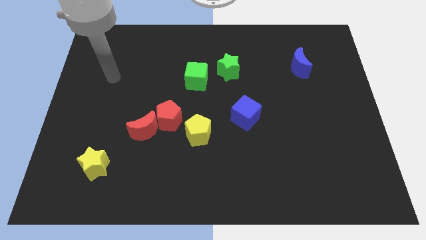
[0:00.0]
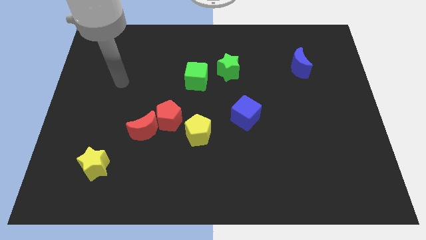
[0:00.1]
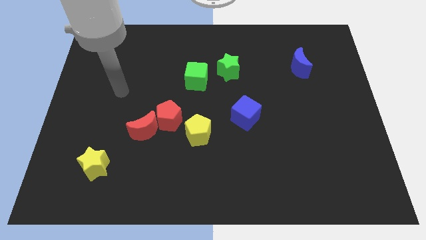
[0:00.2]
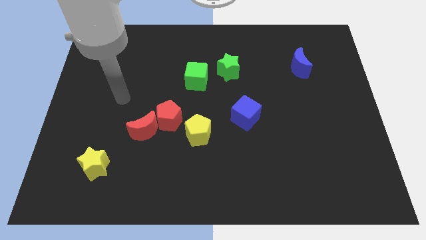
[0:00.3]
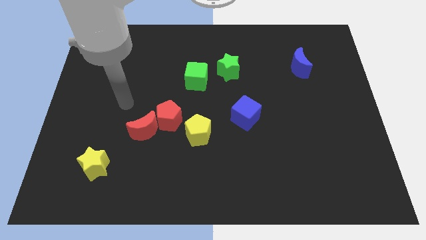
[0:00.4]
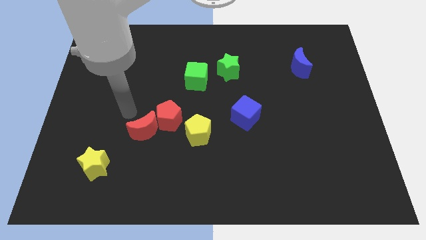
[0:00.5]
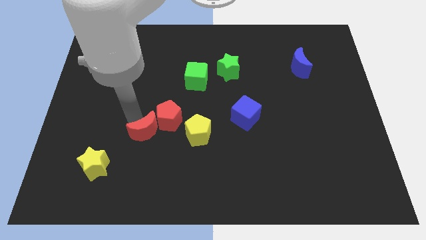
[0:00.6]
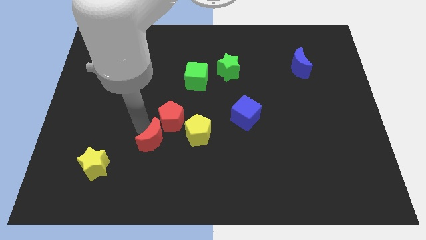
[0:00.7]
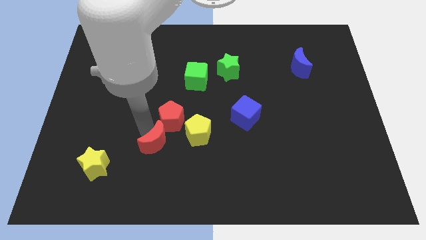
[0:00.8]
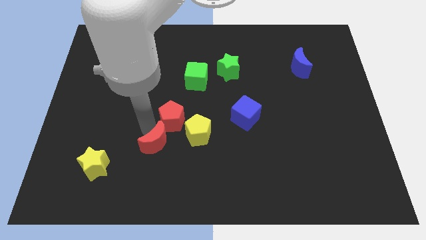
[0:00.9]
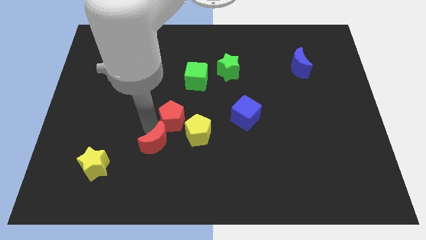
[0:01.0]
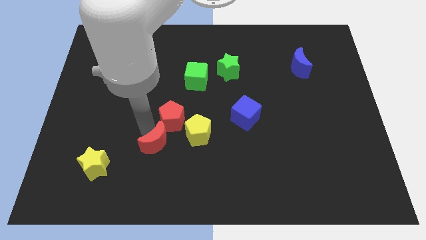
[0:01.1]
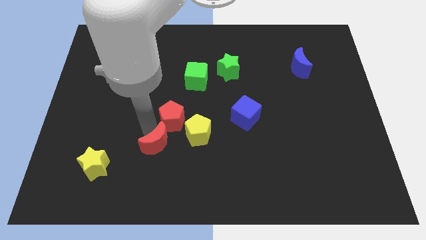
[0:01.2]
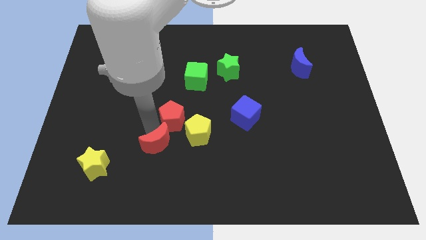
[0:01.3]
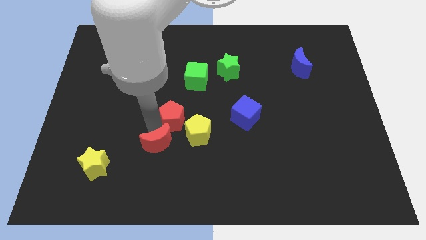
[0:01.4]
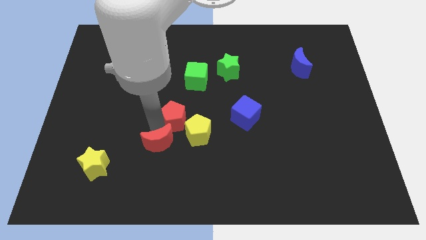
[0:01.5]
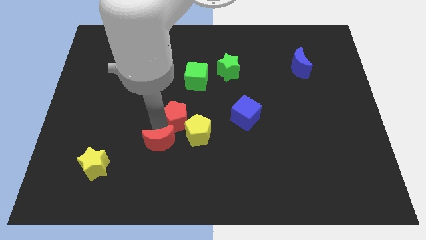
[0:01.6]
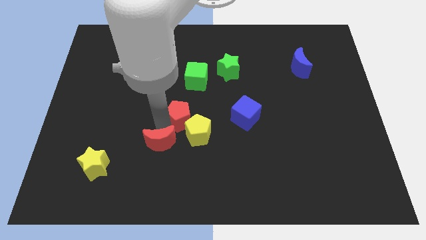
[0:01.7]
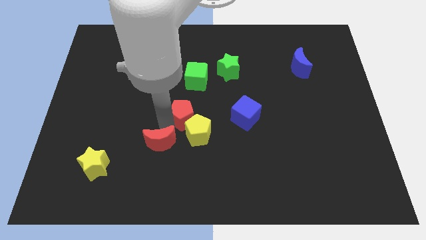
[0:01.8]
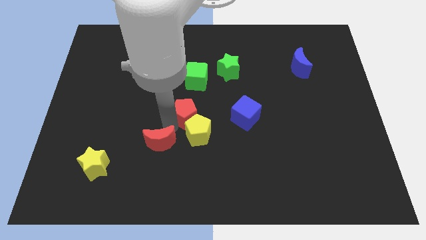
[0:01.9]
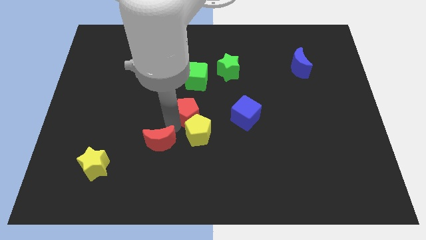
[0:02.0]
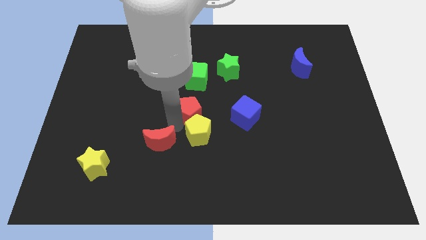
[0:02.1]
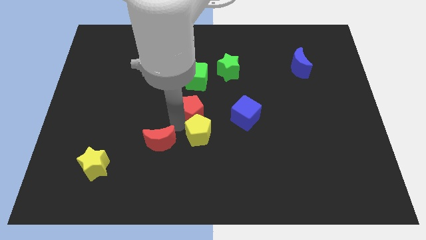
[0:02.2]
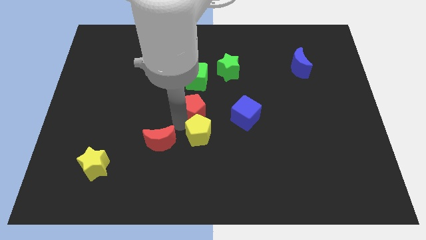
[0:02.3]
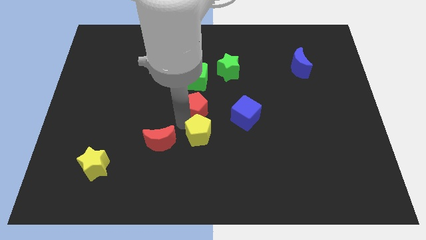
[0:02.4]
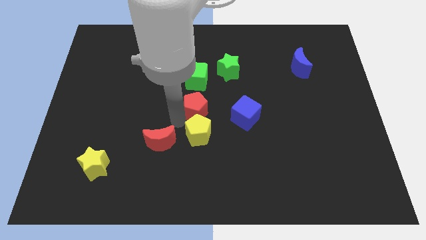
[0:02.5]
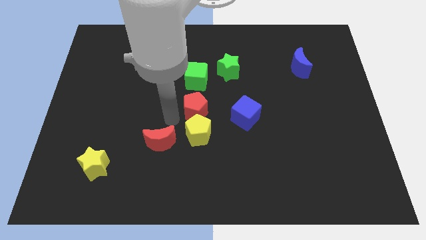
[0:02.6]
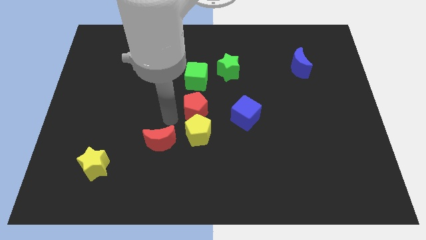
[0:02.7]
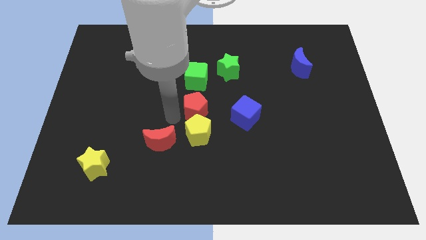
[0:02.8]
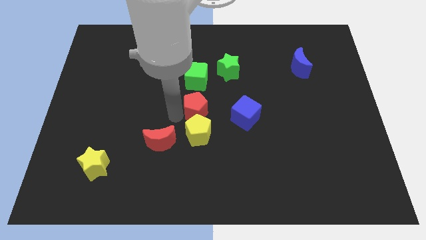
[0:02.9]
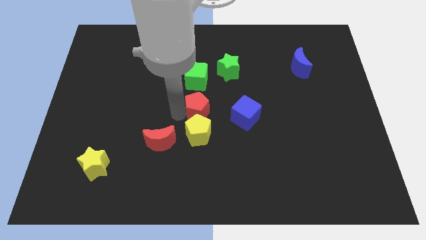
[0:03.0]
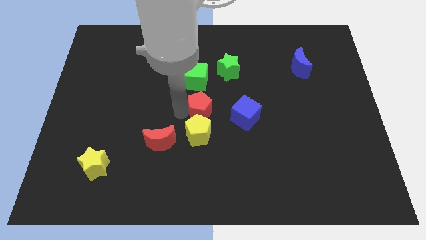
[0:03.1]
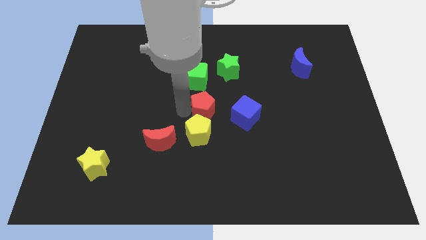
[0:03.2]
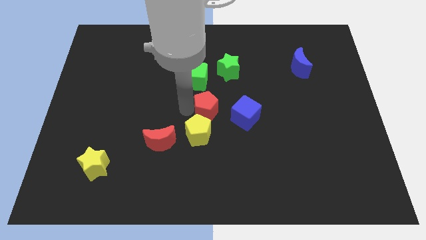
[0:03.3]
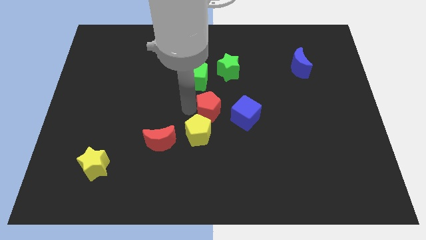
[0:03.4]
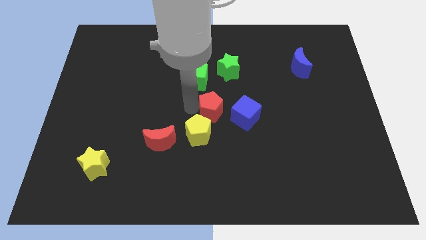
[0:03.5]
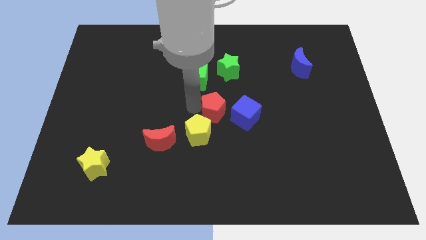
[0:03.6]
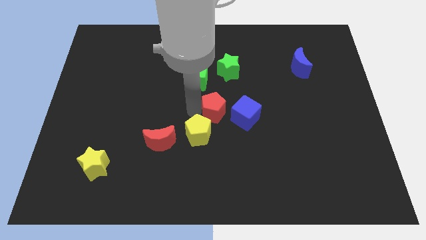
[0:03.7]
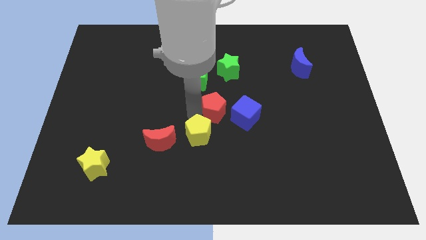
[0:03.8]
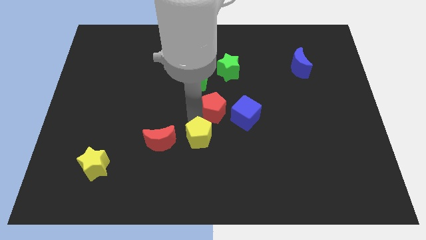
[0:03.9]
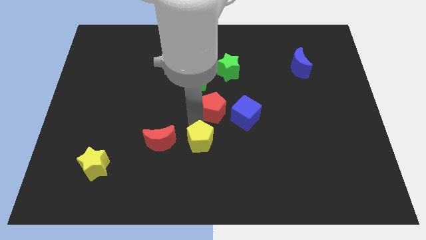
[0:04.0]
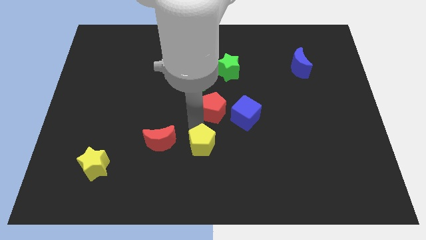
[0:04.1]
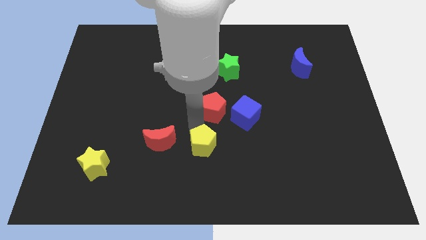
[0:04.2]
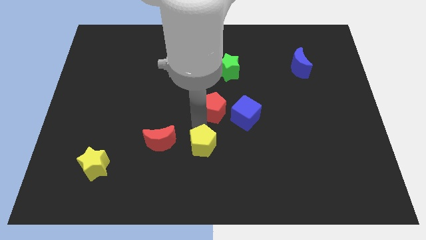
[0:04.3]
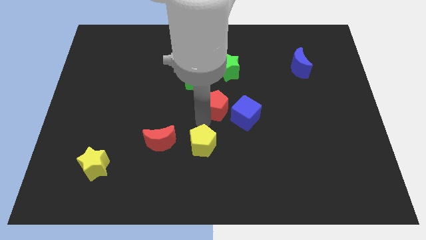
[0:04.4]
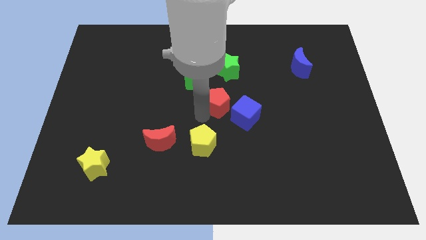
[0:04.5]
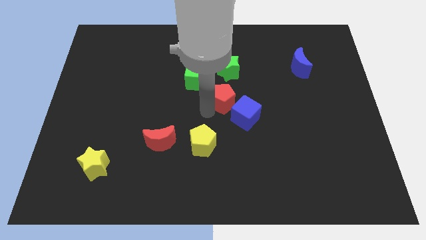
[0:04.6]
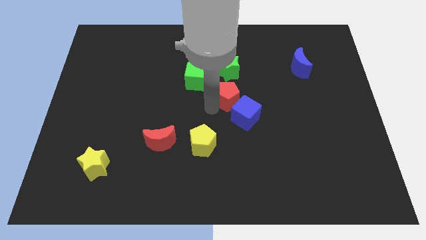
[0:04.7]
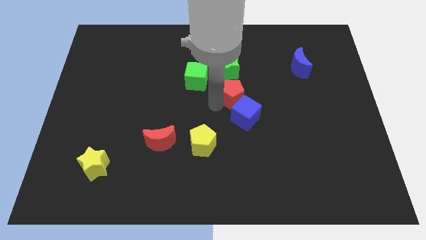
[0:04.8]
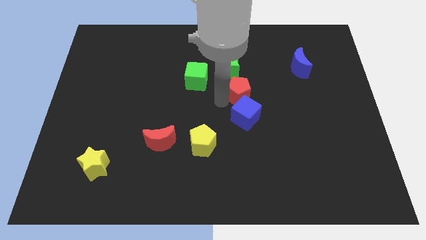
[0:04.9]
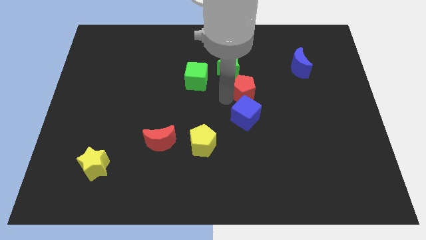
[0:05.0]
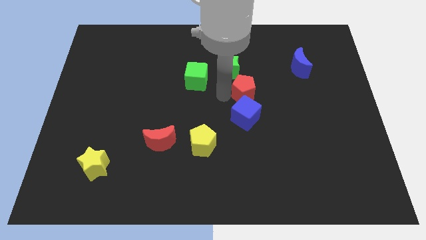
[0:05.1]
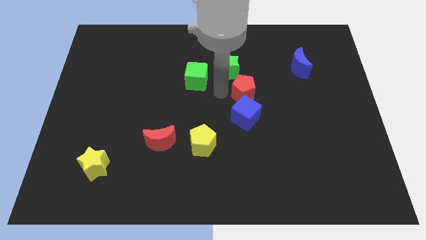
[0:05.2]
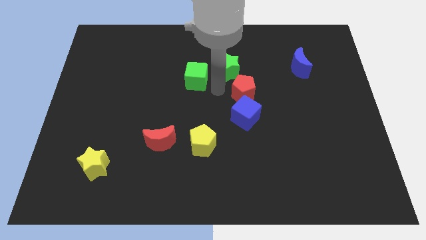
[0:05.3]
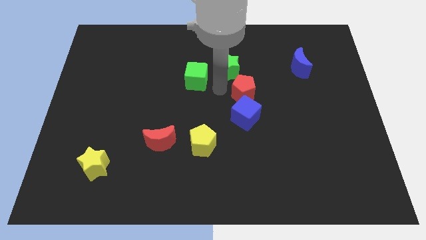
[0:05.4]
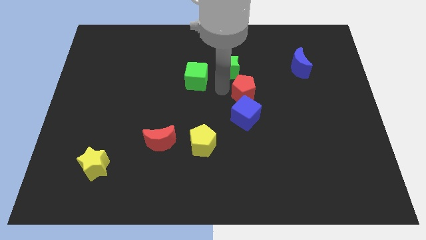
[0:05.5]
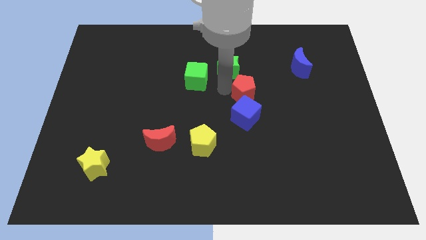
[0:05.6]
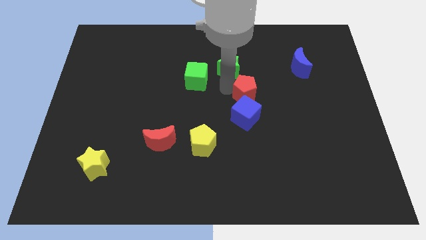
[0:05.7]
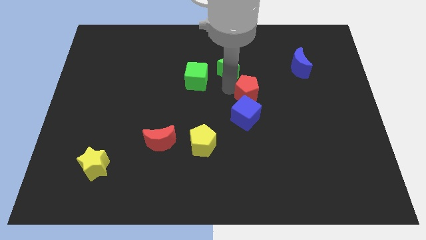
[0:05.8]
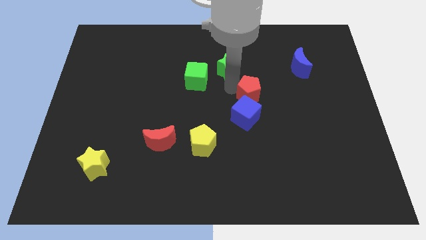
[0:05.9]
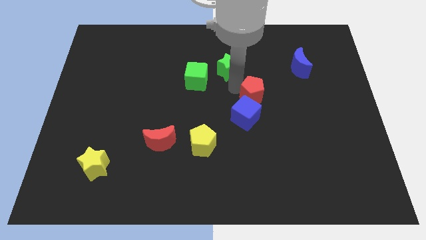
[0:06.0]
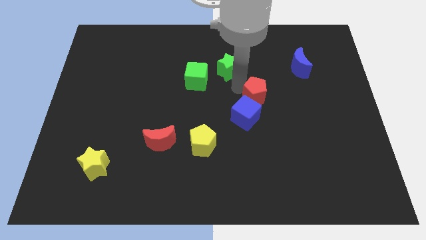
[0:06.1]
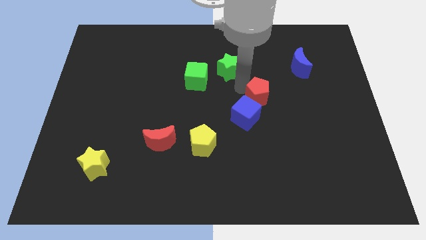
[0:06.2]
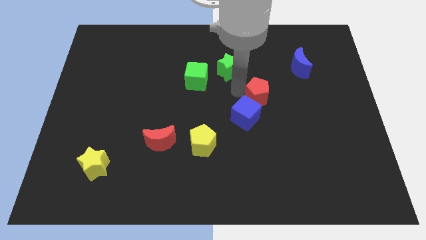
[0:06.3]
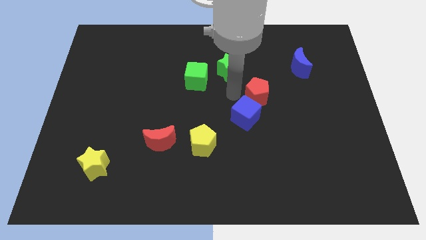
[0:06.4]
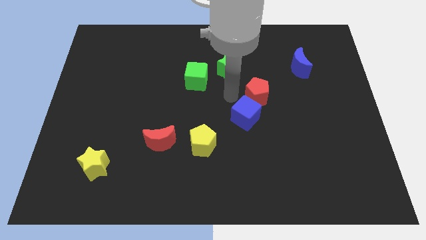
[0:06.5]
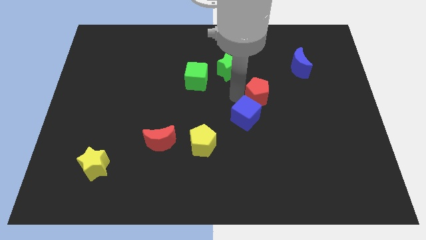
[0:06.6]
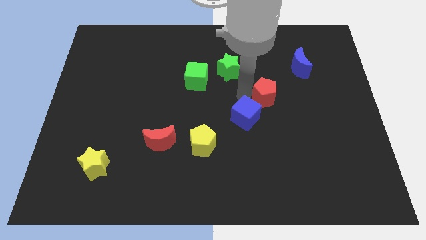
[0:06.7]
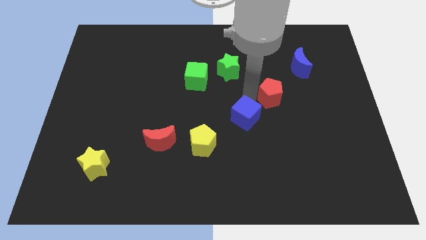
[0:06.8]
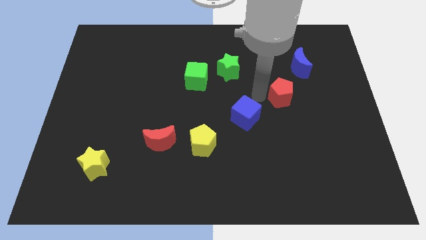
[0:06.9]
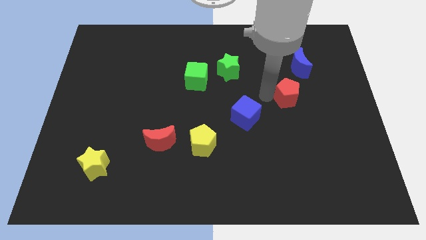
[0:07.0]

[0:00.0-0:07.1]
put the red pentagon to the bottom side of the blue moon

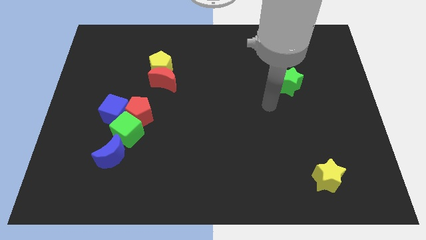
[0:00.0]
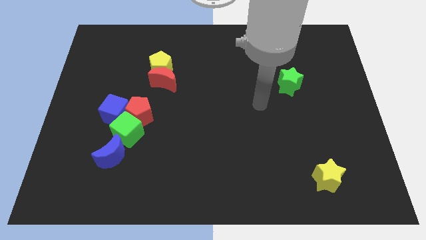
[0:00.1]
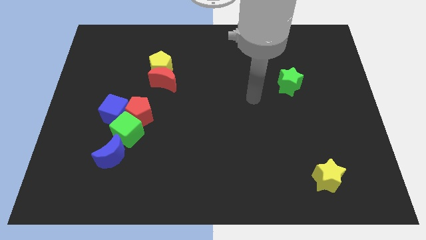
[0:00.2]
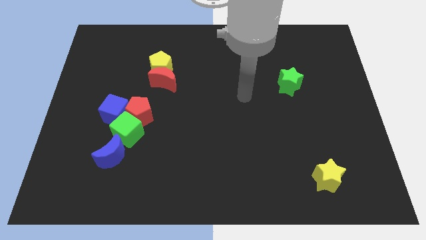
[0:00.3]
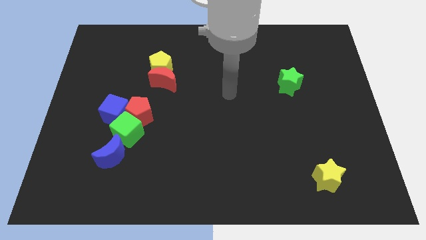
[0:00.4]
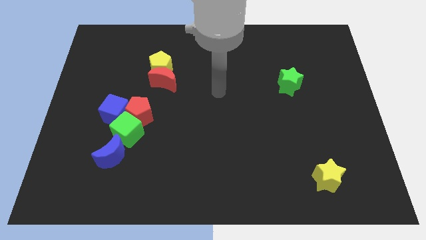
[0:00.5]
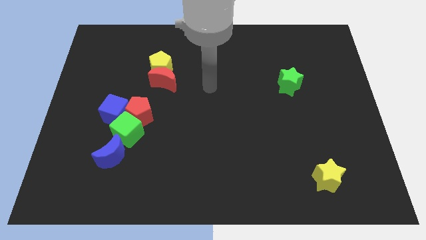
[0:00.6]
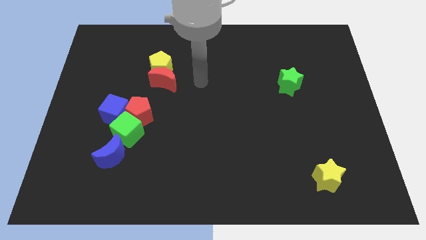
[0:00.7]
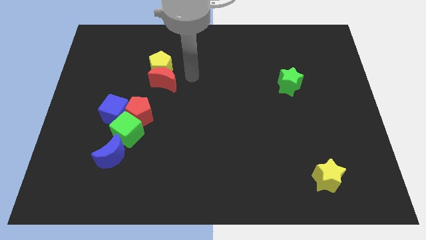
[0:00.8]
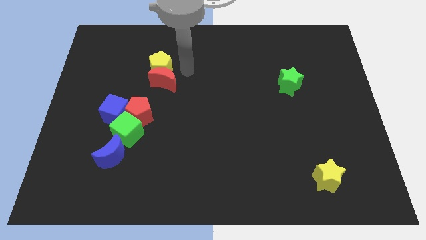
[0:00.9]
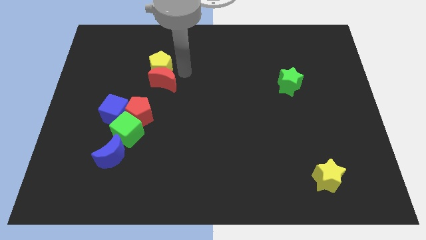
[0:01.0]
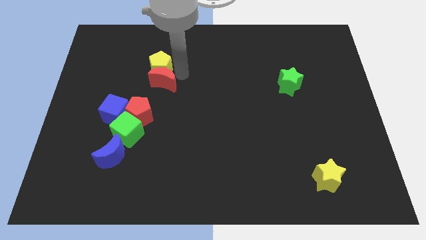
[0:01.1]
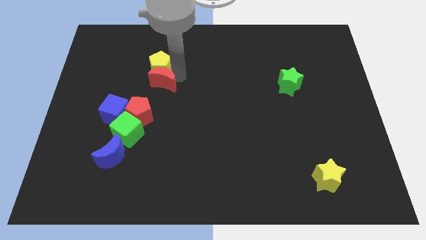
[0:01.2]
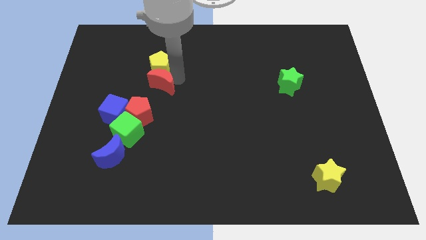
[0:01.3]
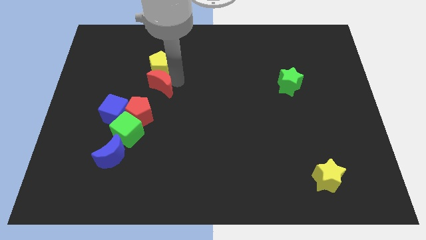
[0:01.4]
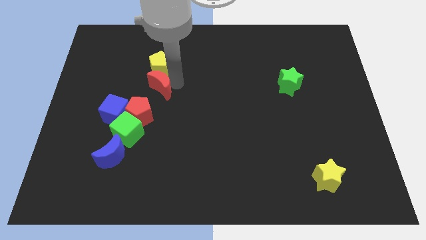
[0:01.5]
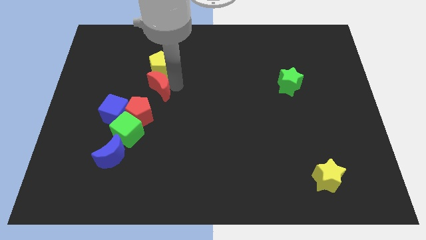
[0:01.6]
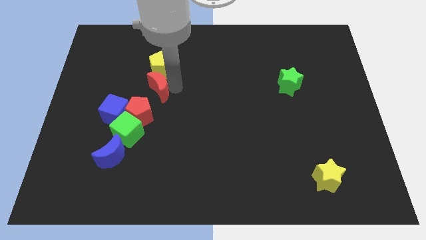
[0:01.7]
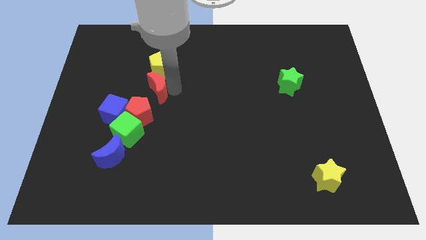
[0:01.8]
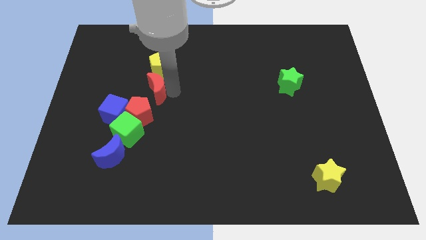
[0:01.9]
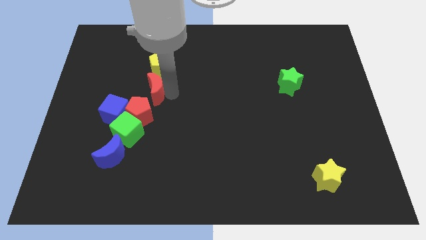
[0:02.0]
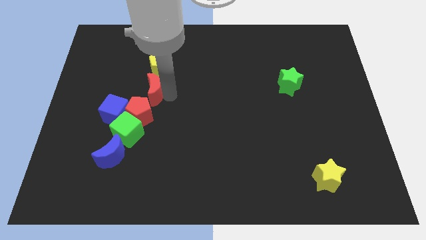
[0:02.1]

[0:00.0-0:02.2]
put the red moon above the green cube
